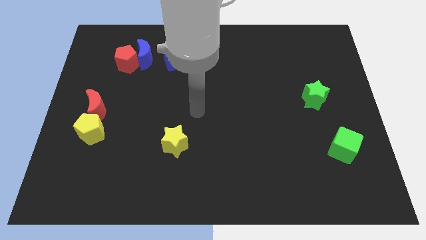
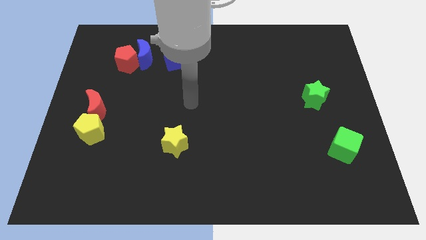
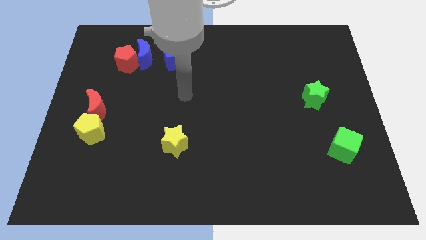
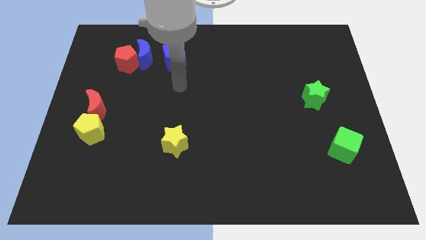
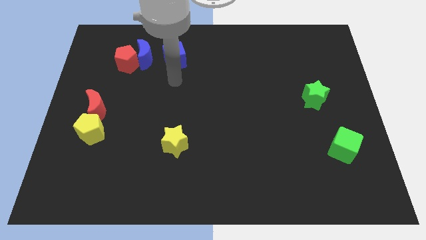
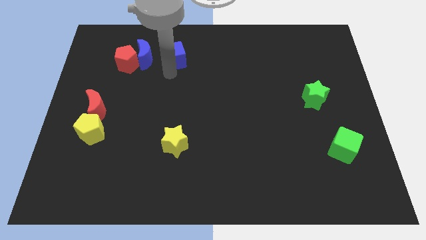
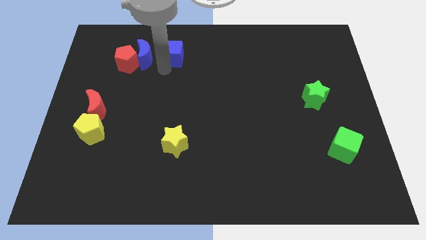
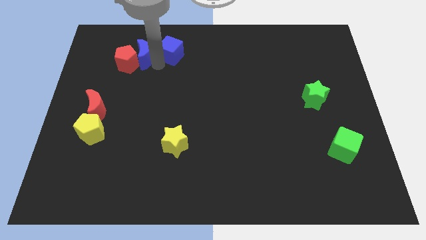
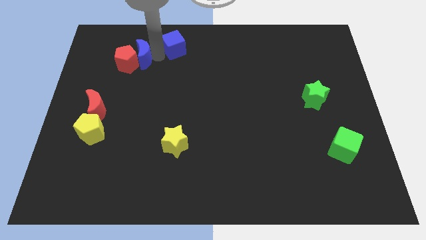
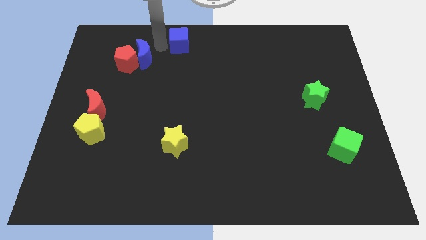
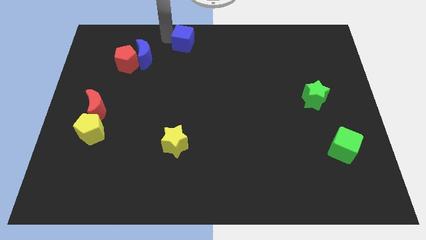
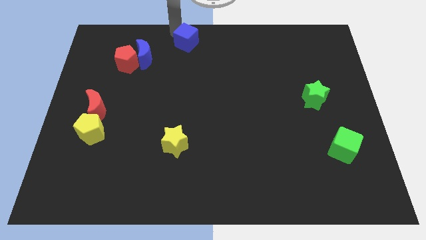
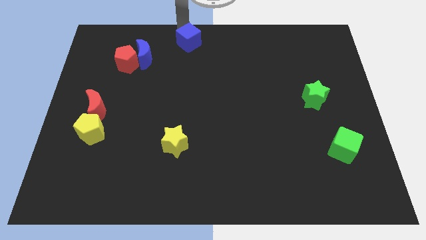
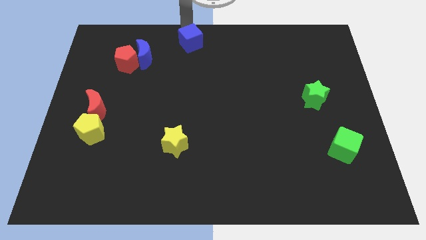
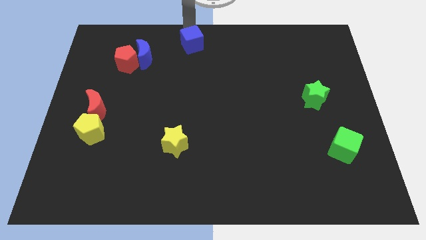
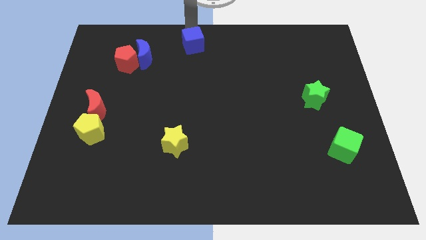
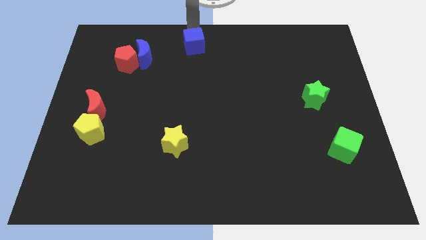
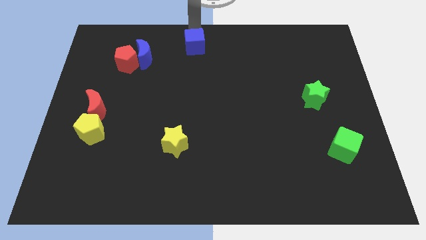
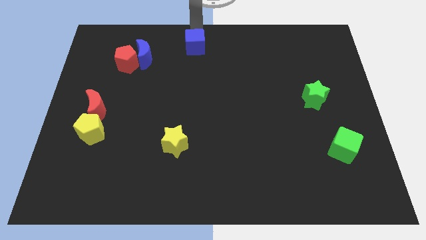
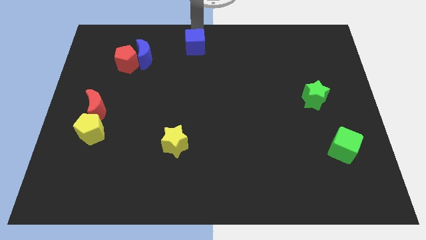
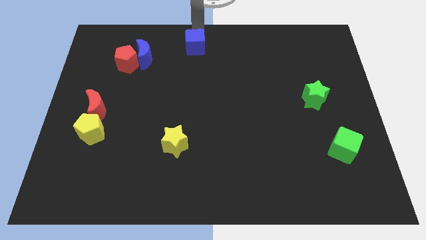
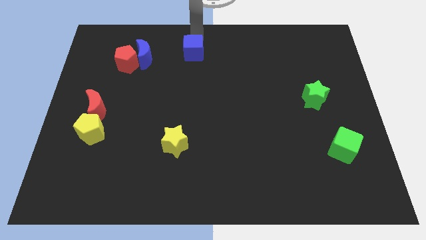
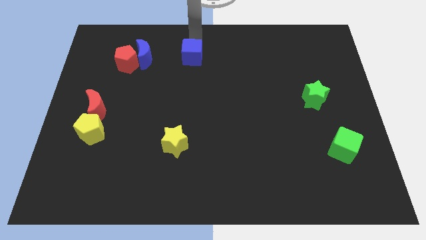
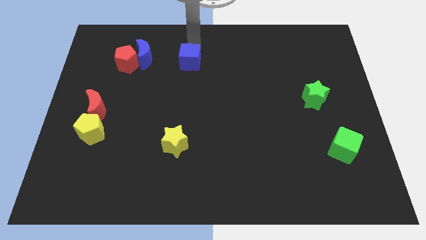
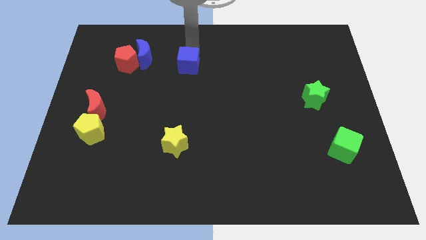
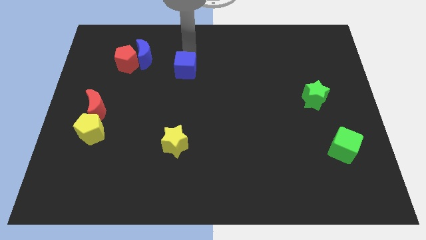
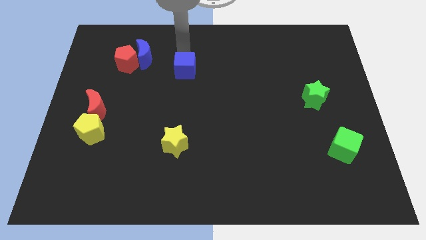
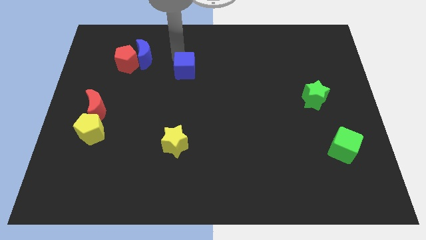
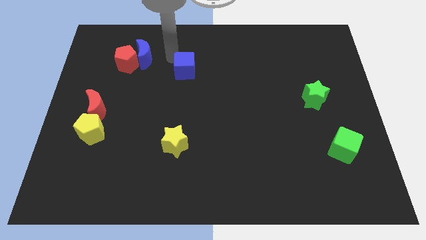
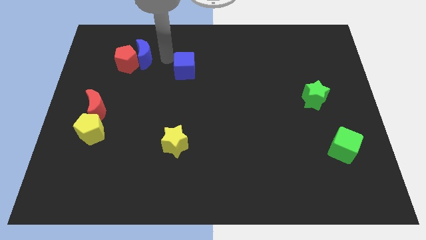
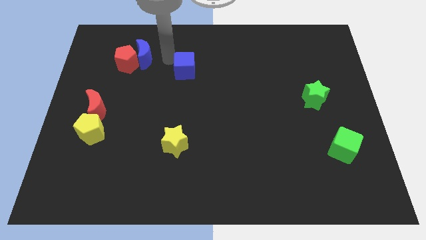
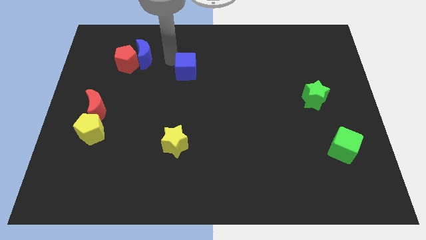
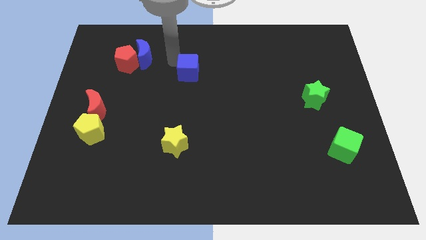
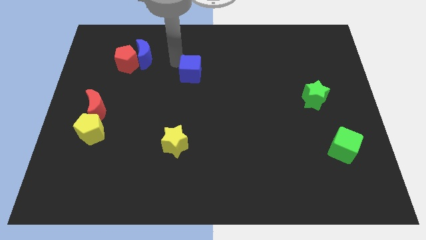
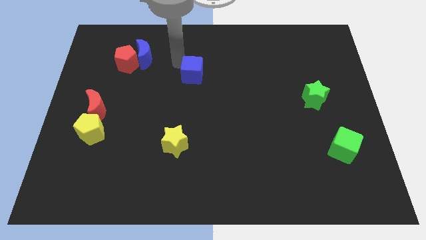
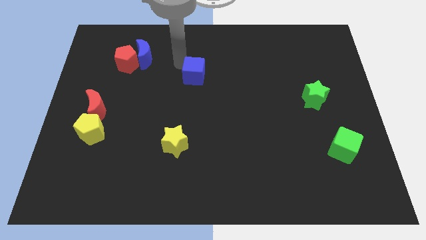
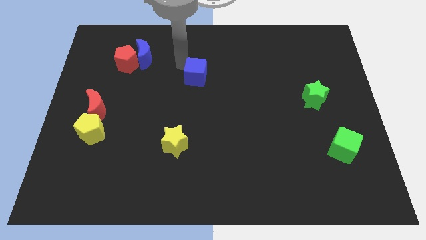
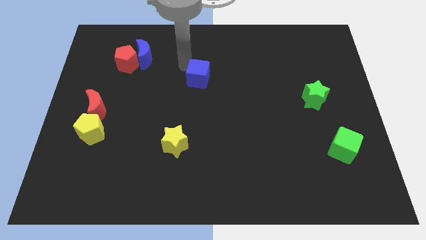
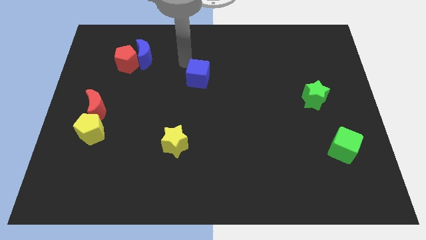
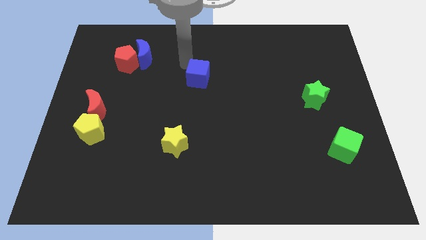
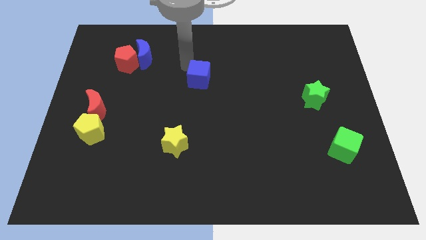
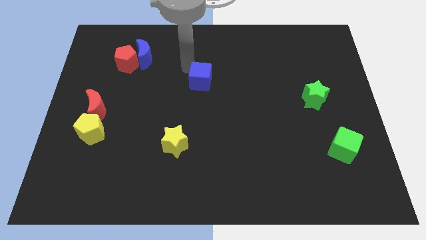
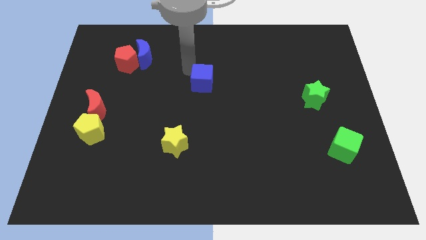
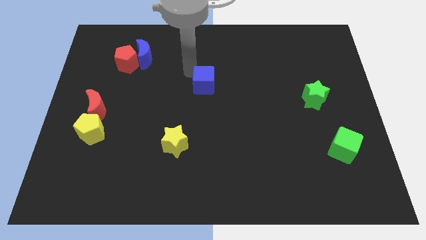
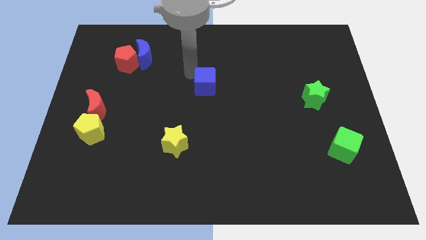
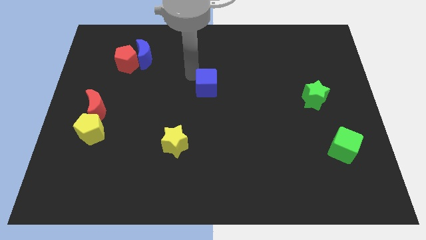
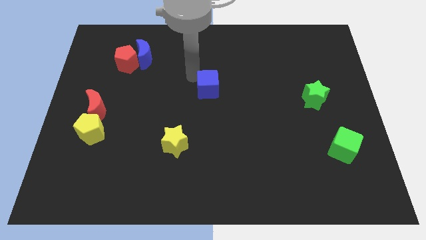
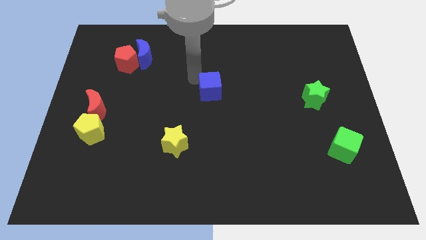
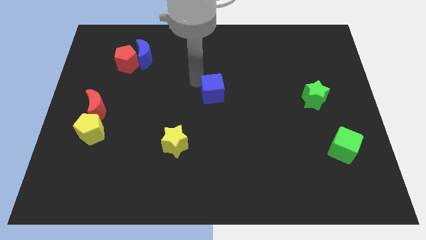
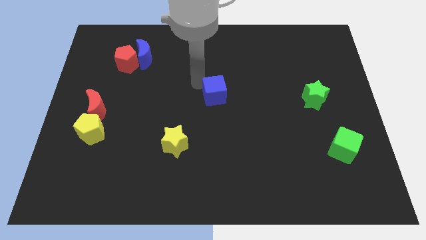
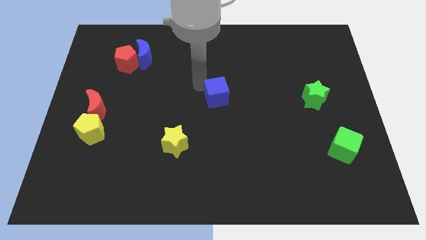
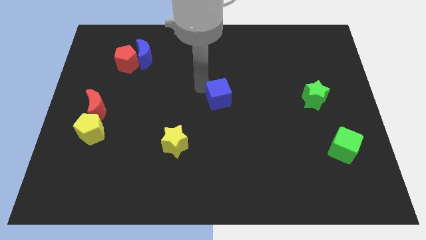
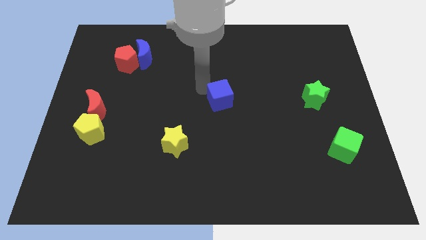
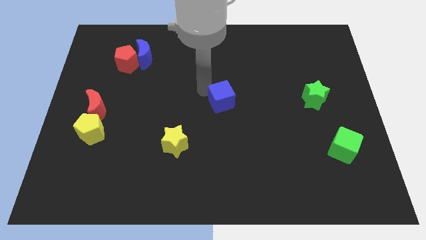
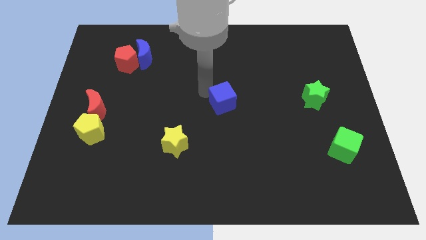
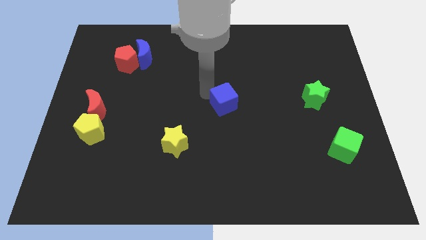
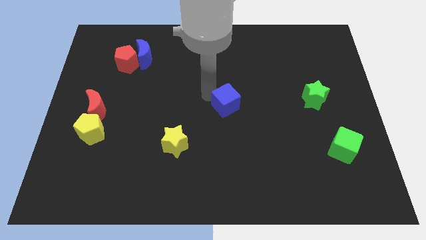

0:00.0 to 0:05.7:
slide the blue cube diagonally down and to the right

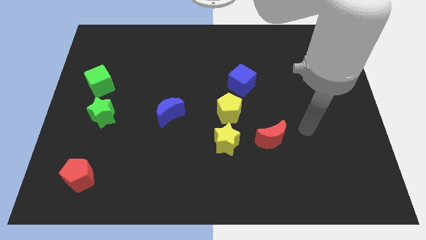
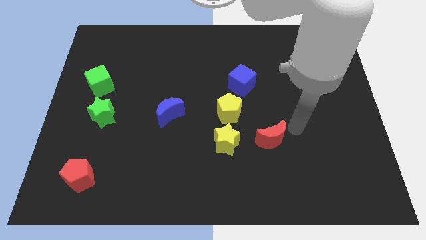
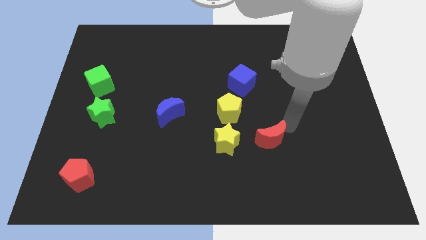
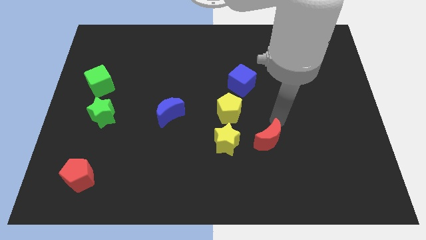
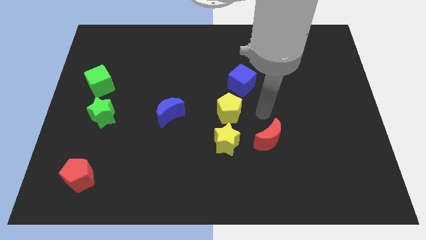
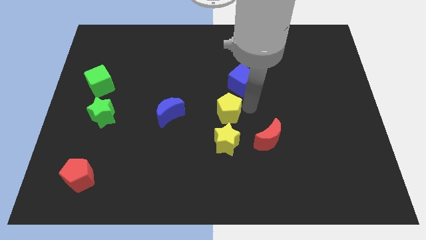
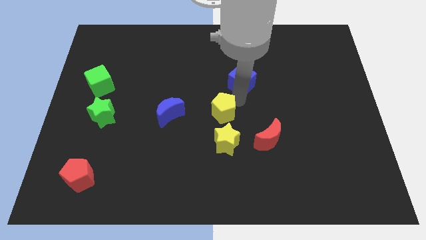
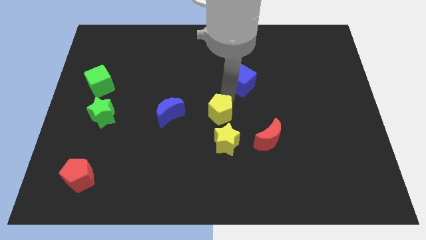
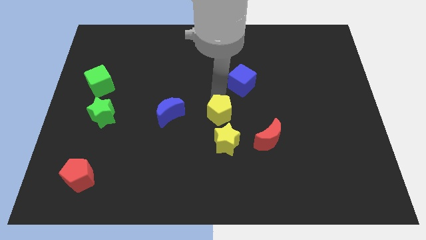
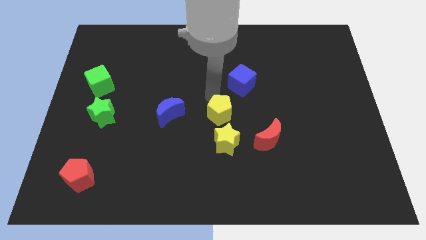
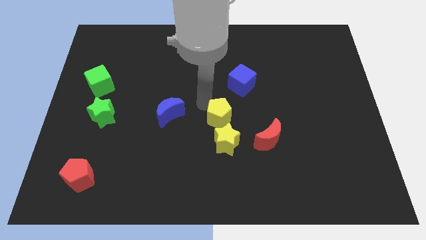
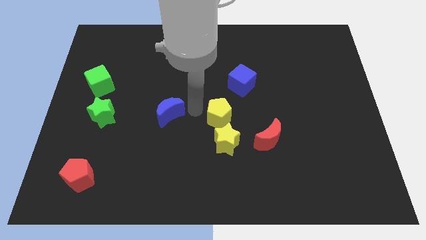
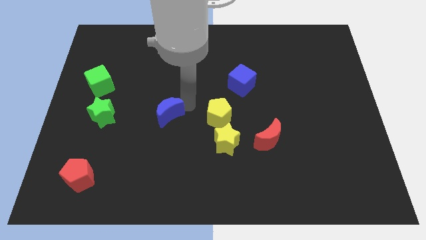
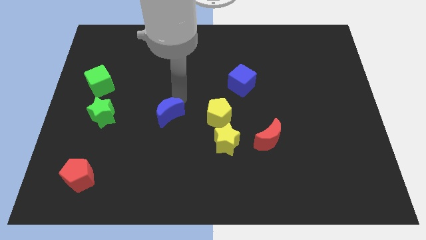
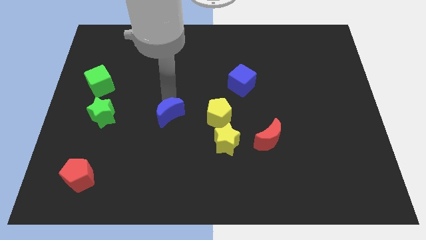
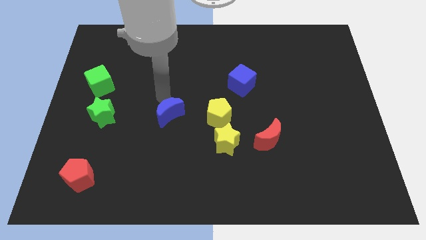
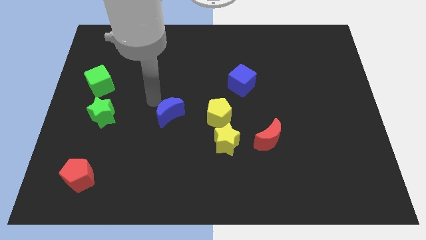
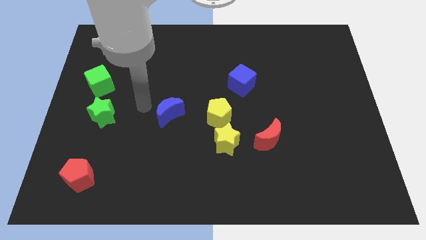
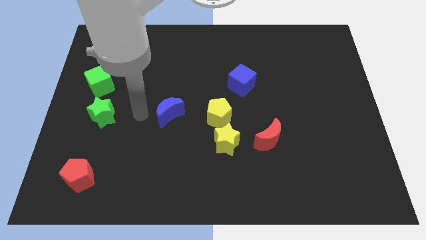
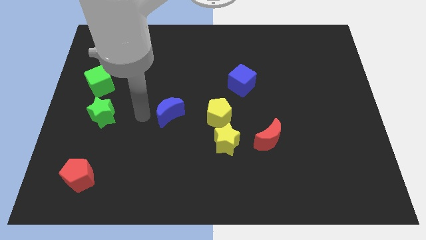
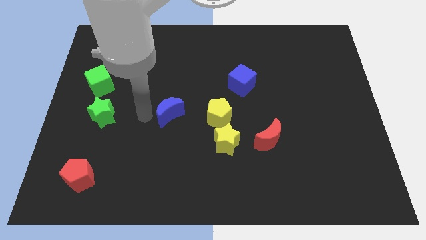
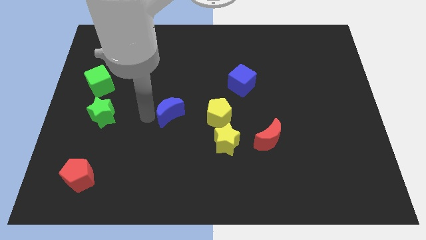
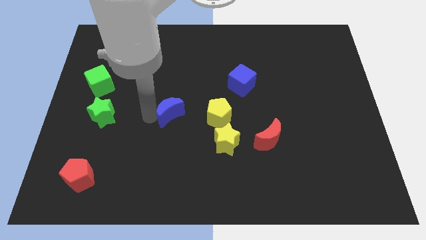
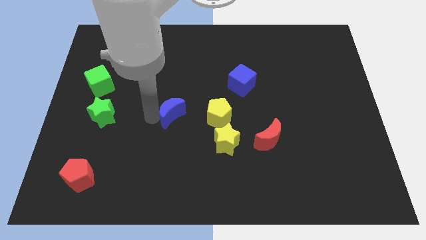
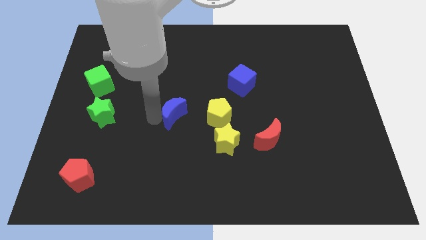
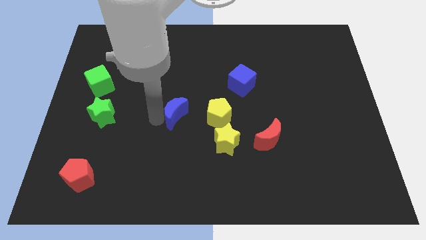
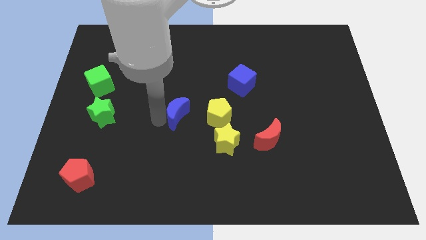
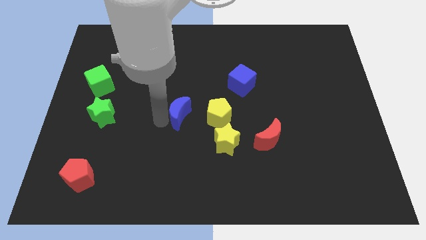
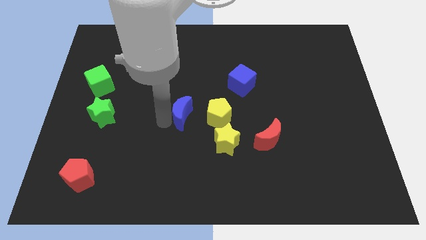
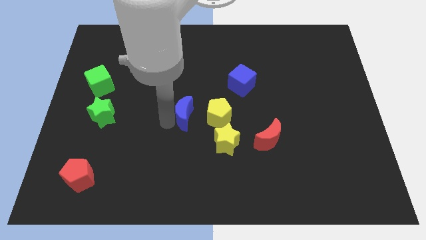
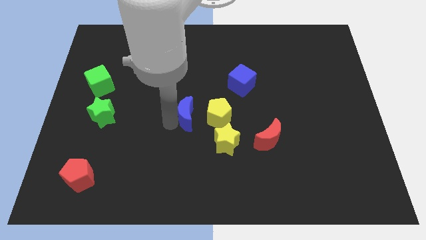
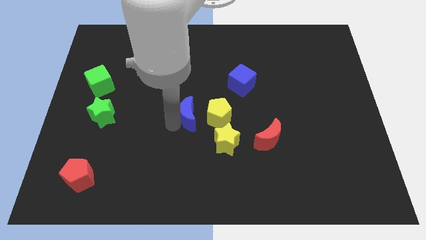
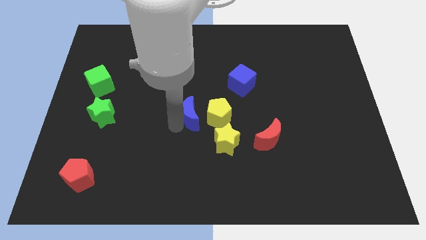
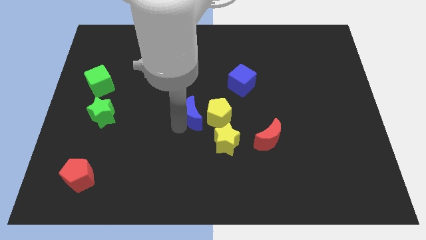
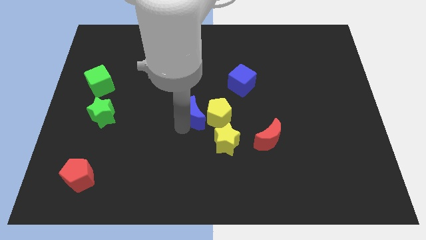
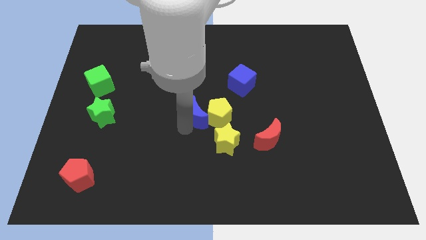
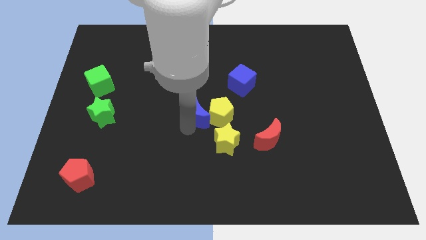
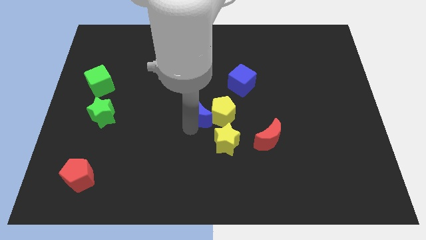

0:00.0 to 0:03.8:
move the blue moon slightly right
